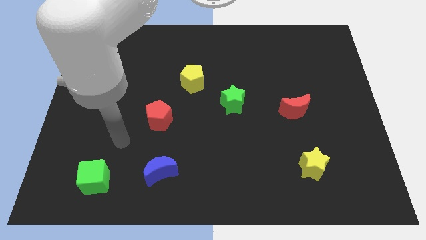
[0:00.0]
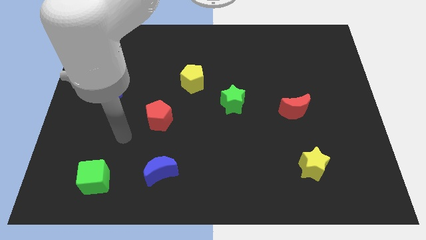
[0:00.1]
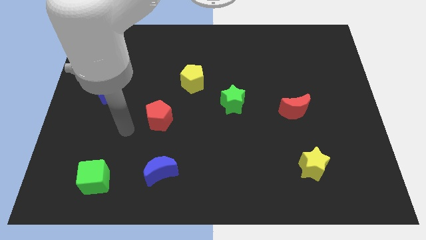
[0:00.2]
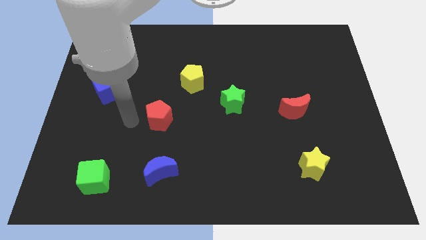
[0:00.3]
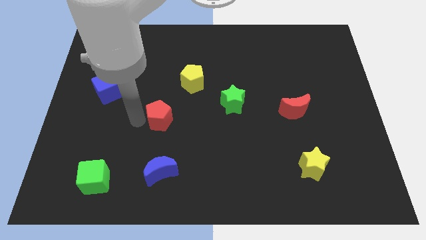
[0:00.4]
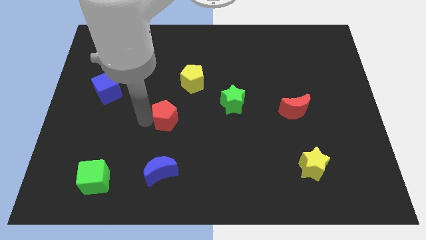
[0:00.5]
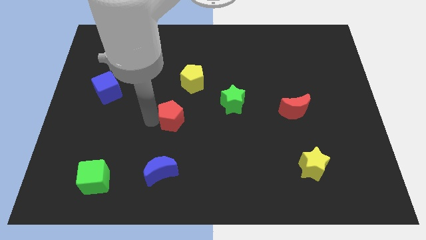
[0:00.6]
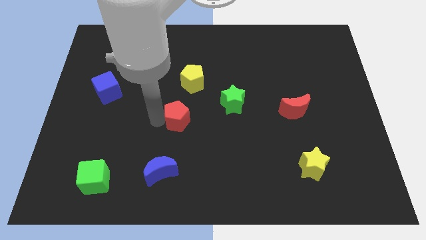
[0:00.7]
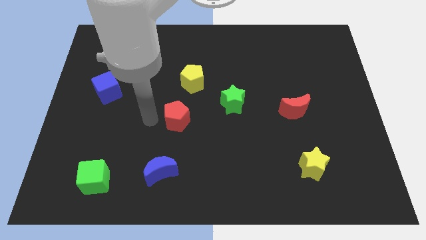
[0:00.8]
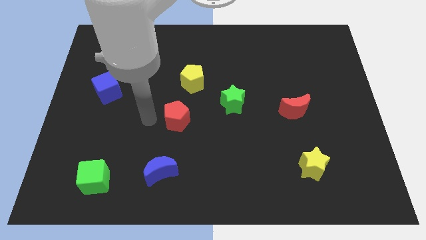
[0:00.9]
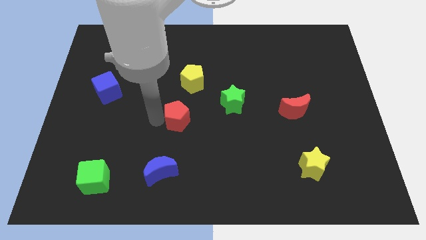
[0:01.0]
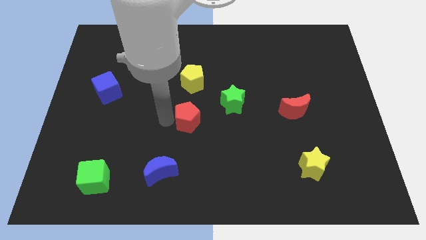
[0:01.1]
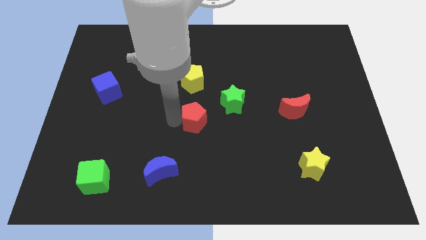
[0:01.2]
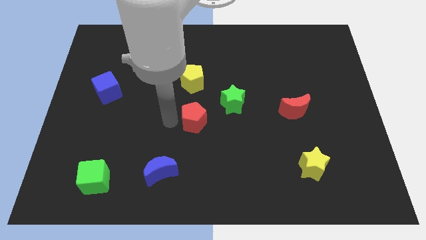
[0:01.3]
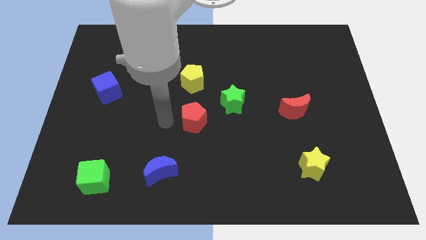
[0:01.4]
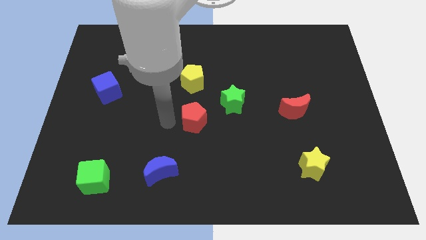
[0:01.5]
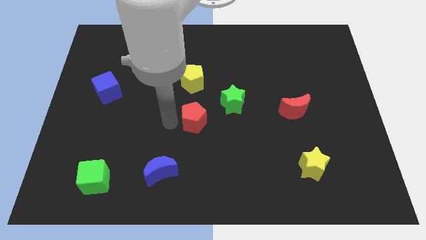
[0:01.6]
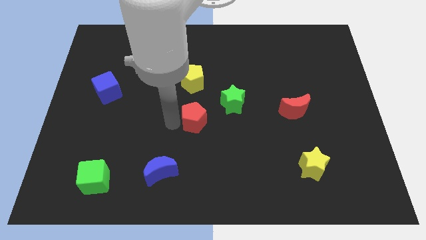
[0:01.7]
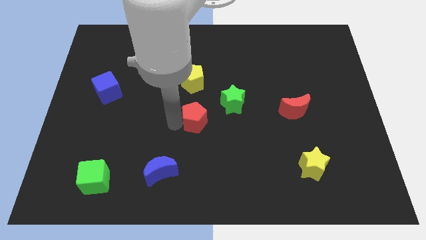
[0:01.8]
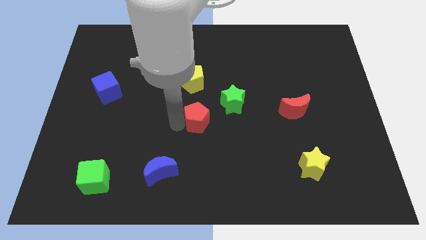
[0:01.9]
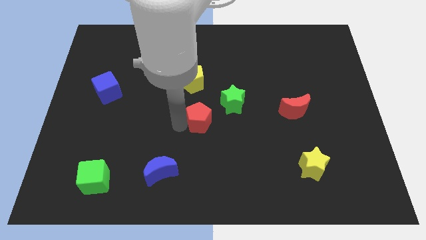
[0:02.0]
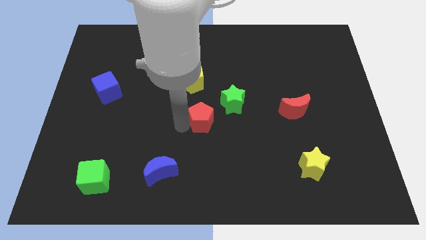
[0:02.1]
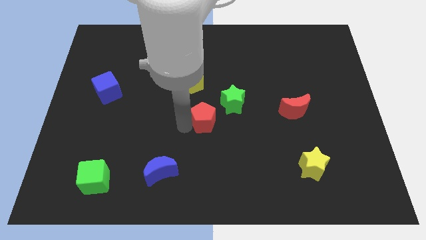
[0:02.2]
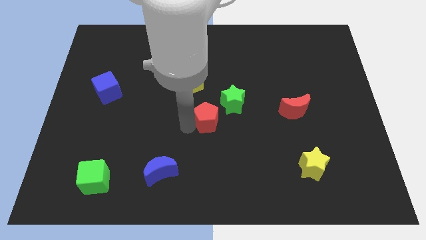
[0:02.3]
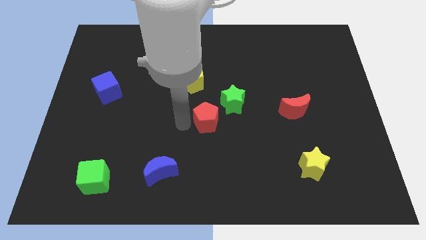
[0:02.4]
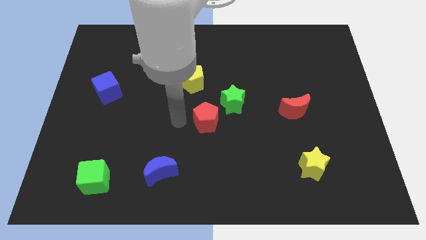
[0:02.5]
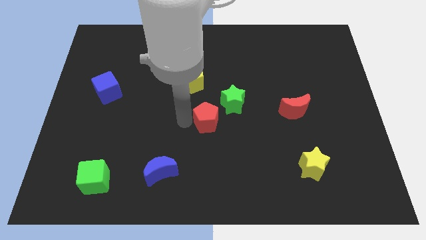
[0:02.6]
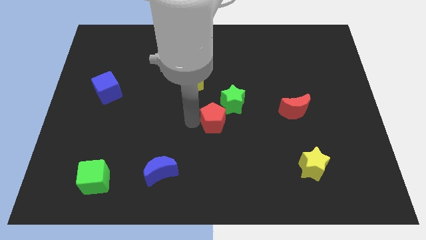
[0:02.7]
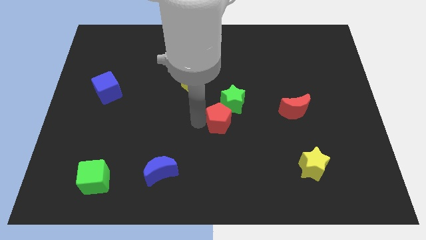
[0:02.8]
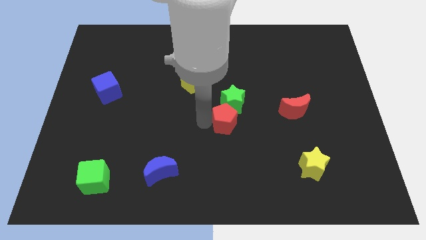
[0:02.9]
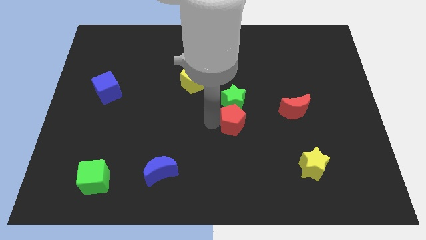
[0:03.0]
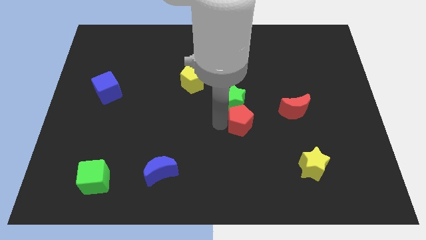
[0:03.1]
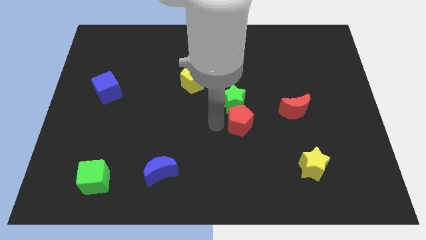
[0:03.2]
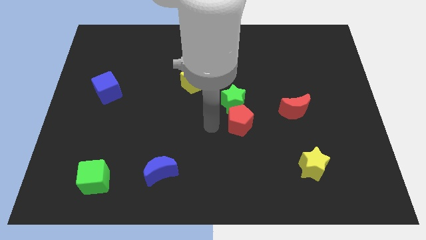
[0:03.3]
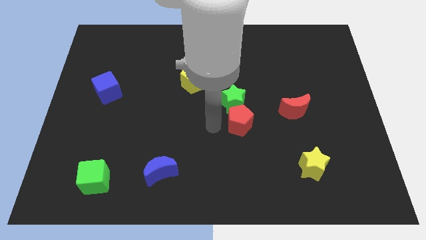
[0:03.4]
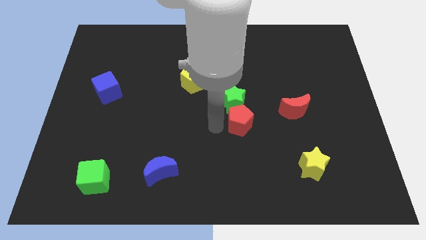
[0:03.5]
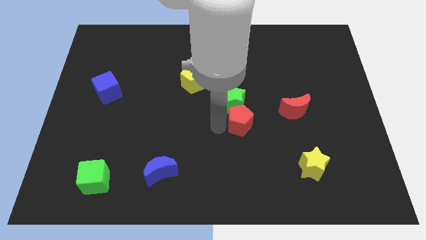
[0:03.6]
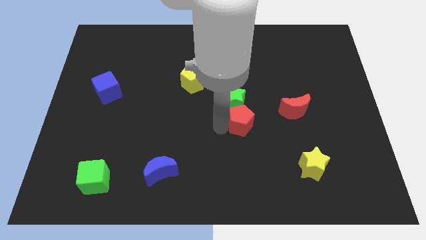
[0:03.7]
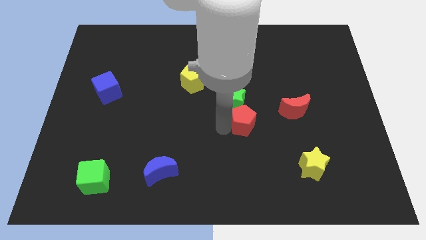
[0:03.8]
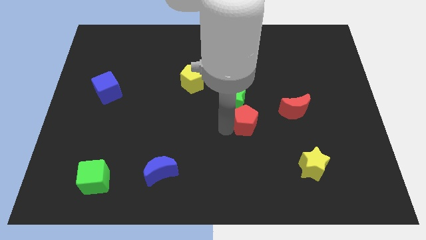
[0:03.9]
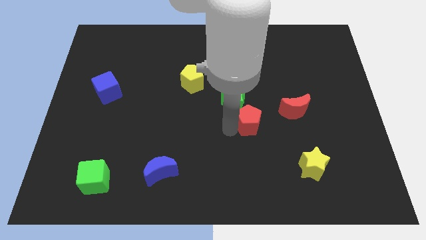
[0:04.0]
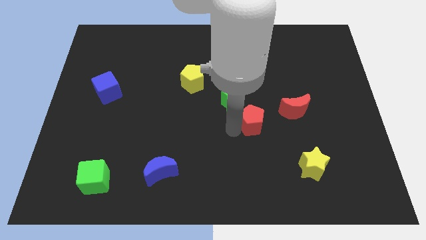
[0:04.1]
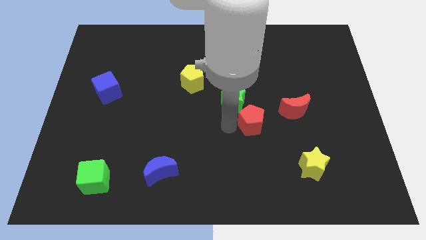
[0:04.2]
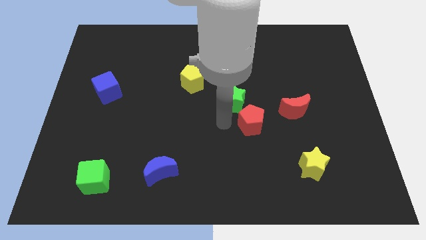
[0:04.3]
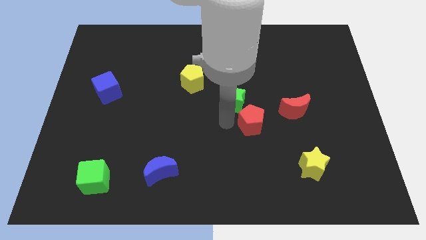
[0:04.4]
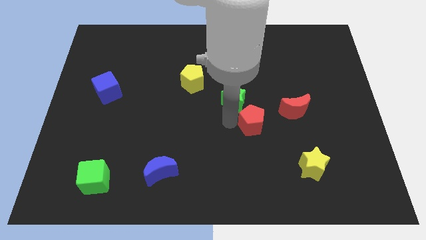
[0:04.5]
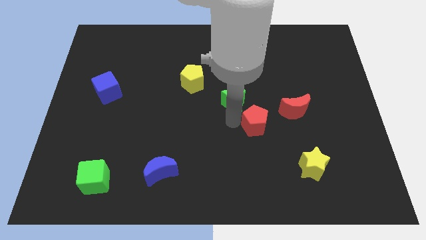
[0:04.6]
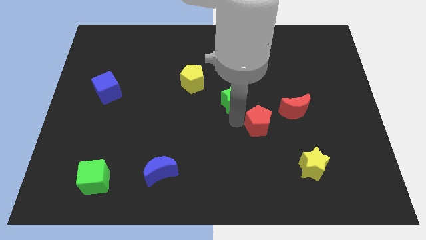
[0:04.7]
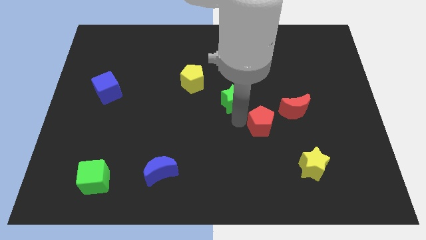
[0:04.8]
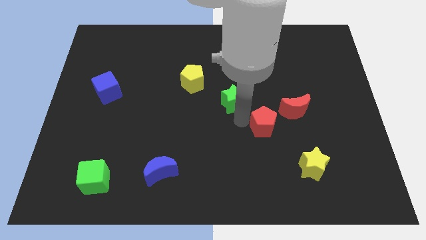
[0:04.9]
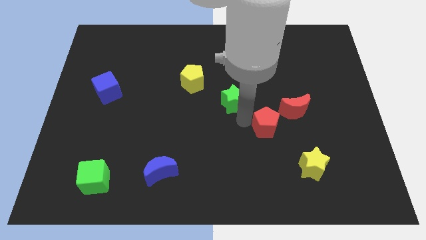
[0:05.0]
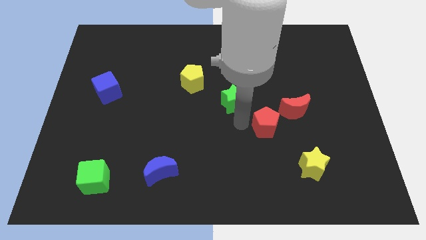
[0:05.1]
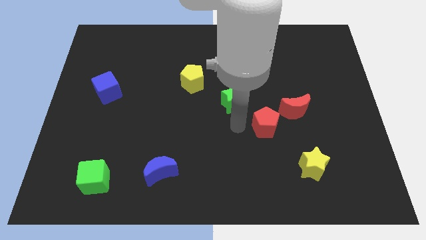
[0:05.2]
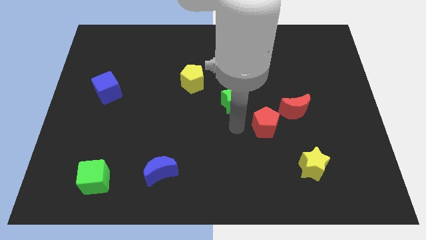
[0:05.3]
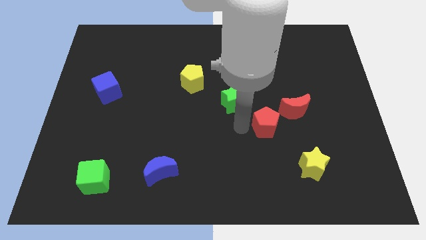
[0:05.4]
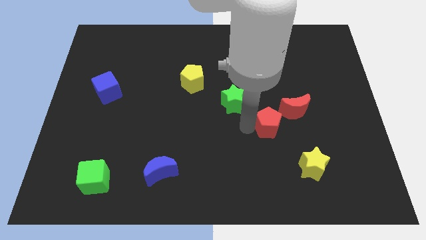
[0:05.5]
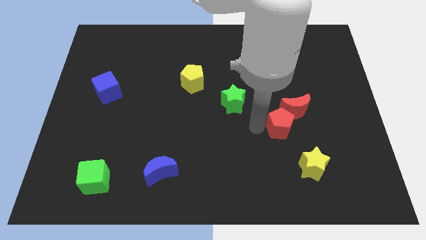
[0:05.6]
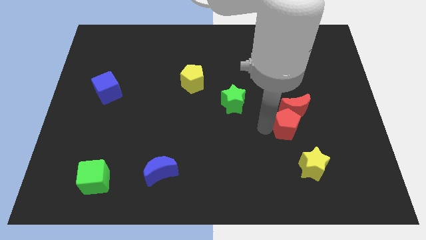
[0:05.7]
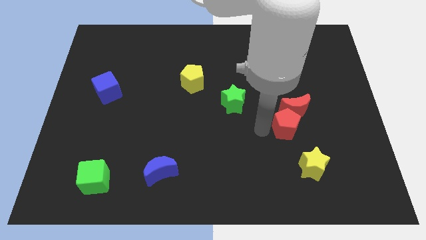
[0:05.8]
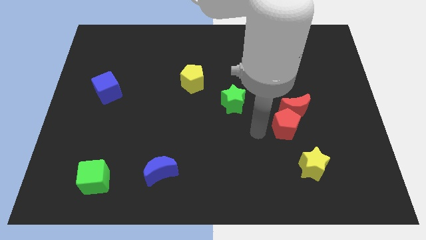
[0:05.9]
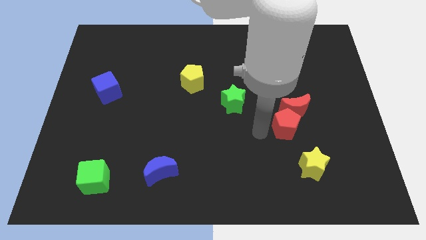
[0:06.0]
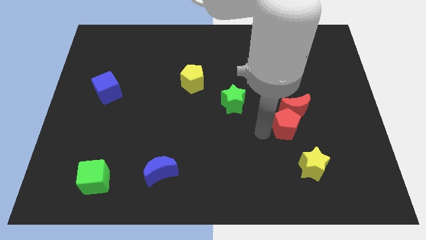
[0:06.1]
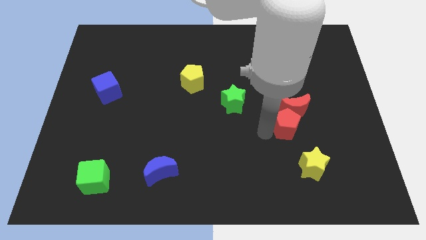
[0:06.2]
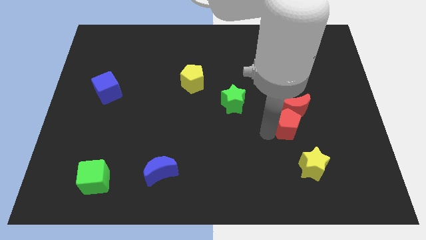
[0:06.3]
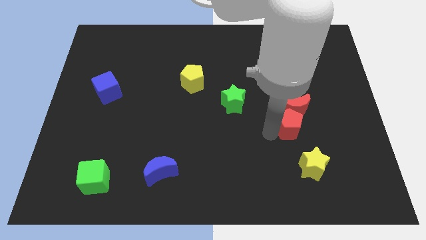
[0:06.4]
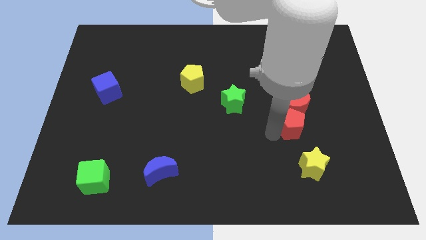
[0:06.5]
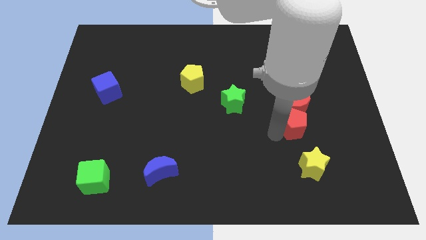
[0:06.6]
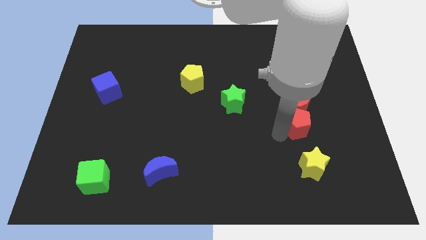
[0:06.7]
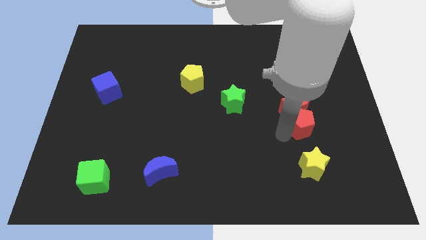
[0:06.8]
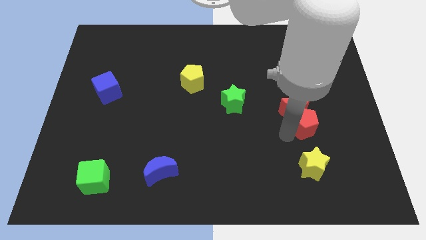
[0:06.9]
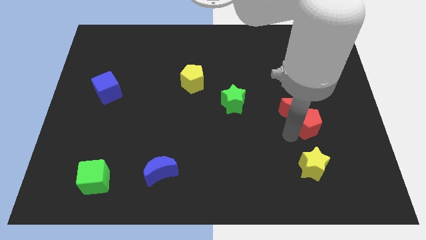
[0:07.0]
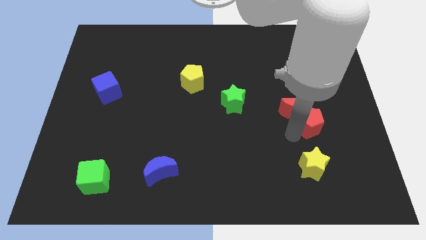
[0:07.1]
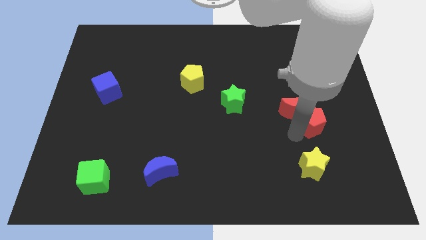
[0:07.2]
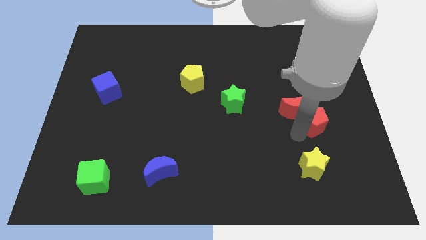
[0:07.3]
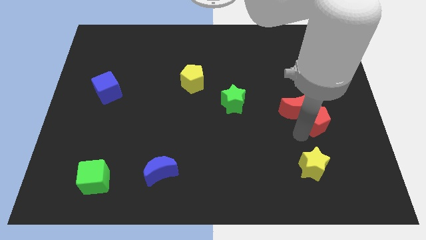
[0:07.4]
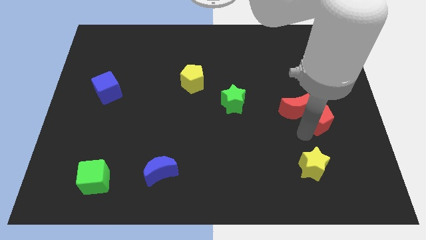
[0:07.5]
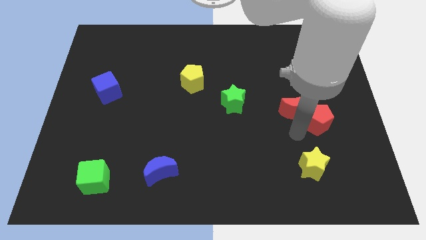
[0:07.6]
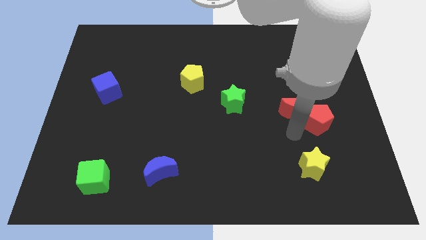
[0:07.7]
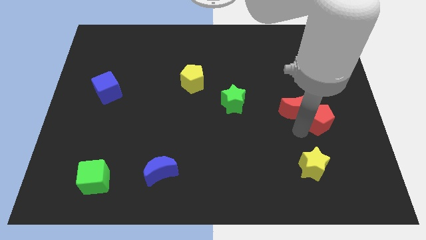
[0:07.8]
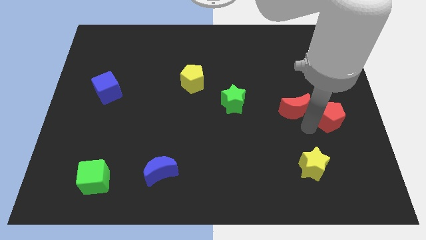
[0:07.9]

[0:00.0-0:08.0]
push the red pentagon to the center right

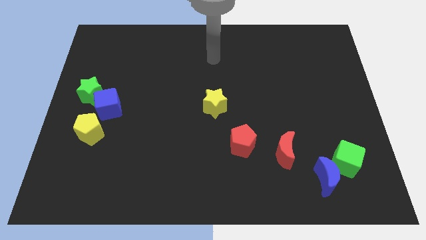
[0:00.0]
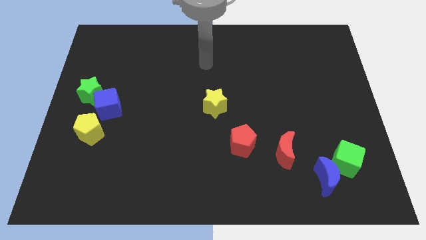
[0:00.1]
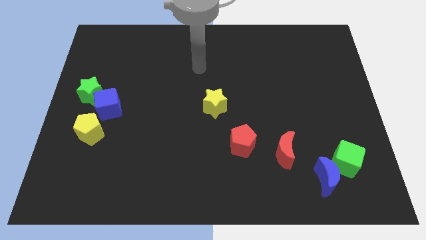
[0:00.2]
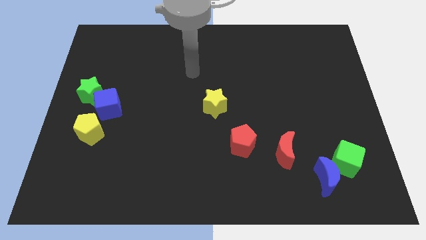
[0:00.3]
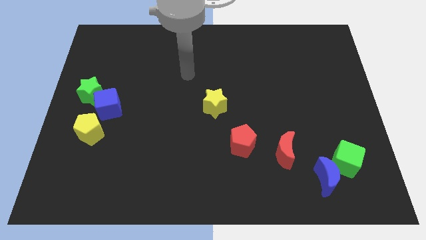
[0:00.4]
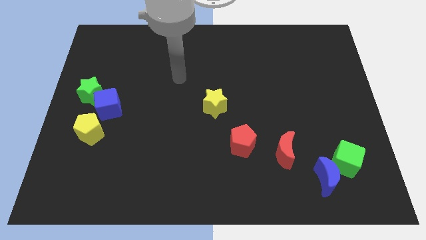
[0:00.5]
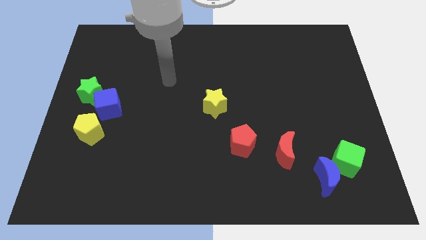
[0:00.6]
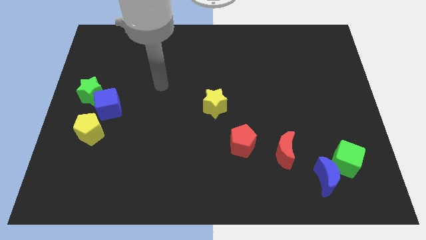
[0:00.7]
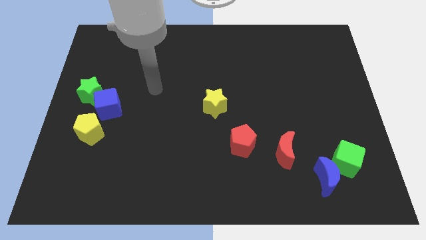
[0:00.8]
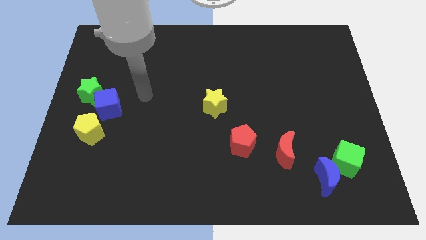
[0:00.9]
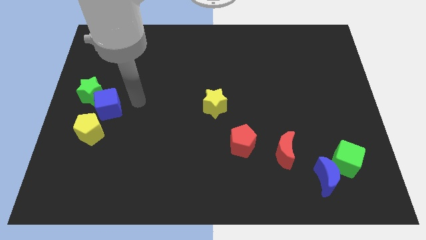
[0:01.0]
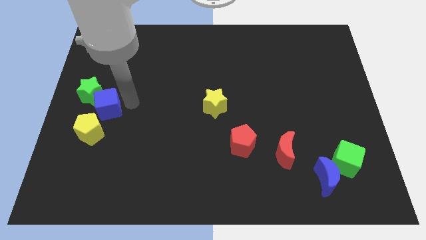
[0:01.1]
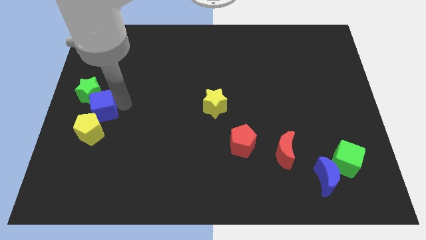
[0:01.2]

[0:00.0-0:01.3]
move the blue cube to the center left
